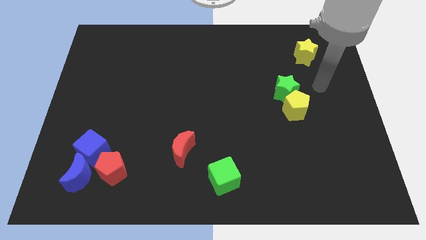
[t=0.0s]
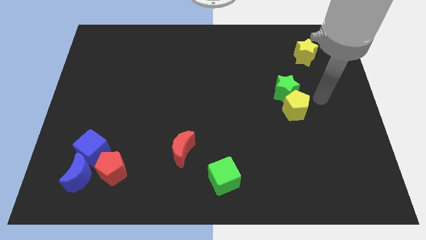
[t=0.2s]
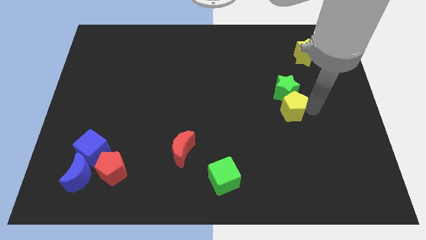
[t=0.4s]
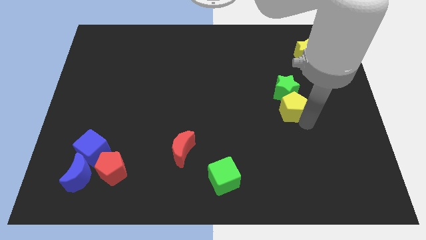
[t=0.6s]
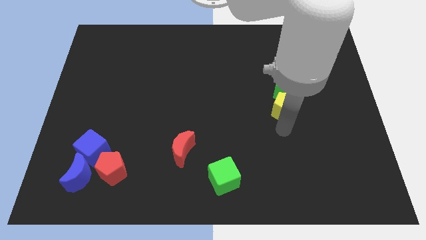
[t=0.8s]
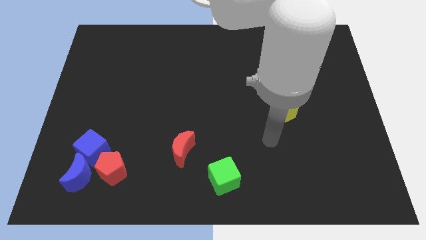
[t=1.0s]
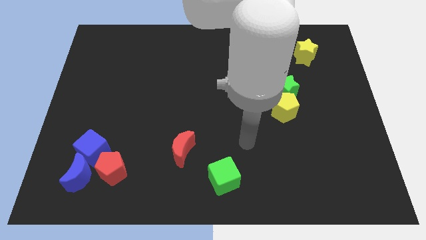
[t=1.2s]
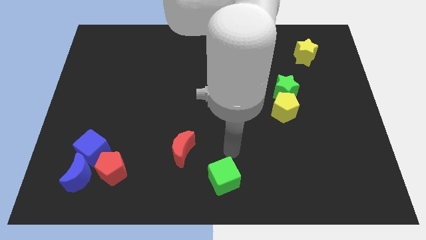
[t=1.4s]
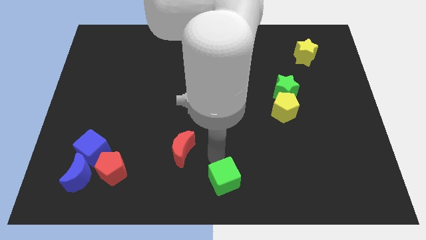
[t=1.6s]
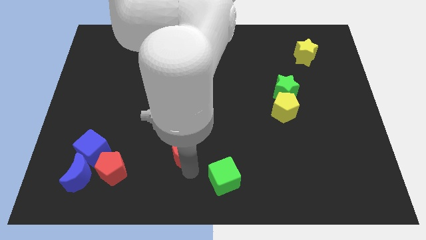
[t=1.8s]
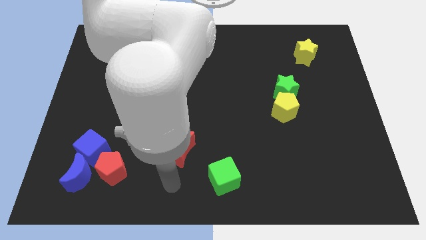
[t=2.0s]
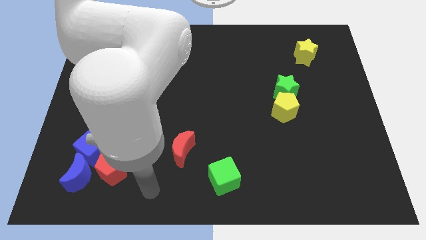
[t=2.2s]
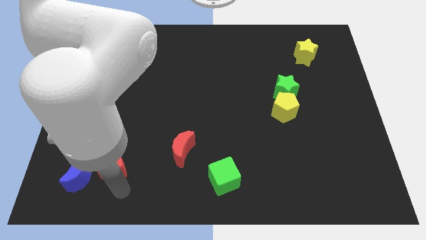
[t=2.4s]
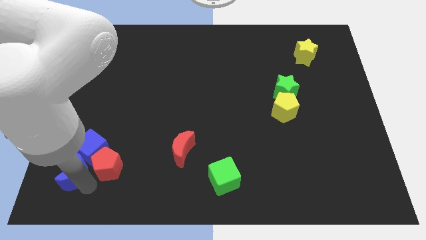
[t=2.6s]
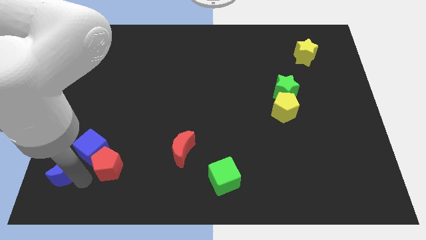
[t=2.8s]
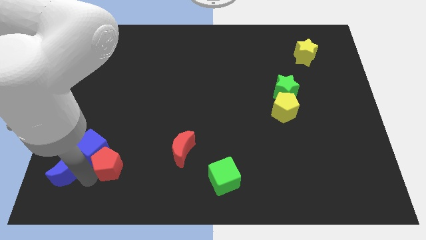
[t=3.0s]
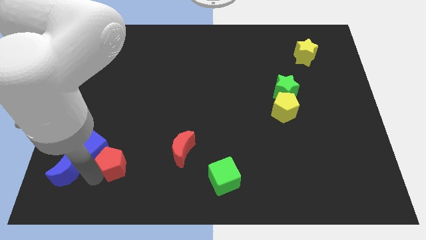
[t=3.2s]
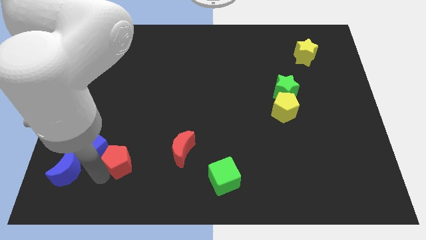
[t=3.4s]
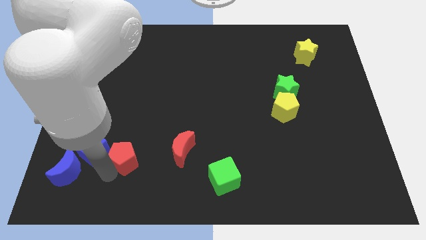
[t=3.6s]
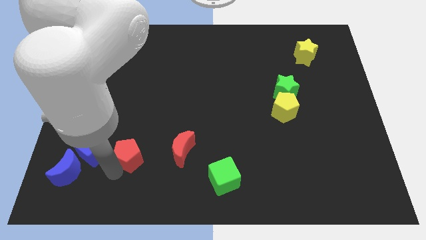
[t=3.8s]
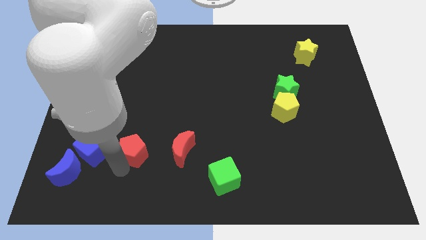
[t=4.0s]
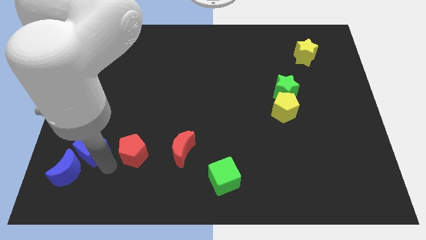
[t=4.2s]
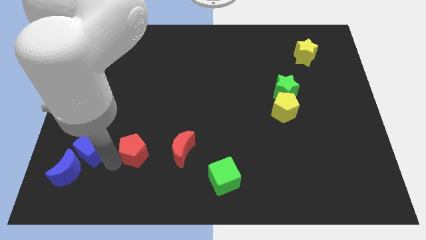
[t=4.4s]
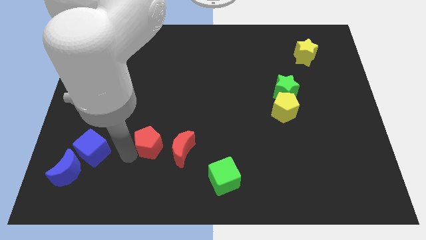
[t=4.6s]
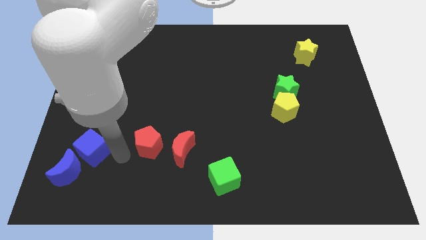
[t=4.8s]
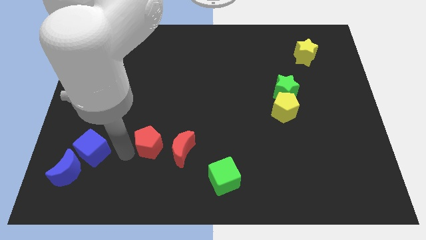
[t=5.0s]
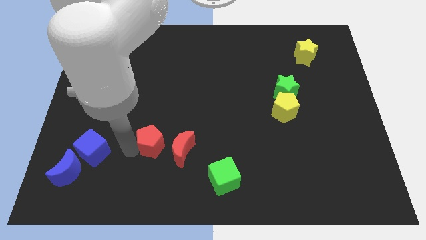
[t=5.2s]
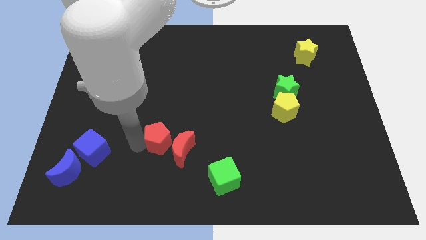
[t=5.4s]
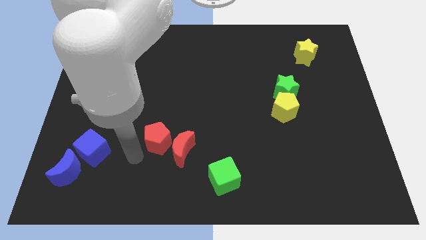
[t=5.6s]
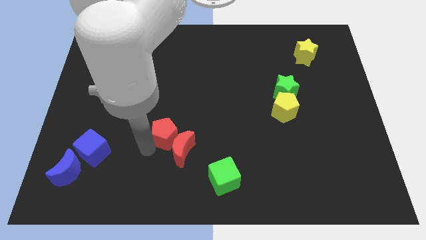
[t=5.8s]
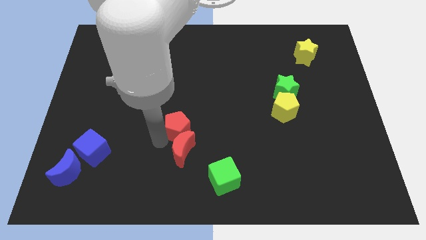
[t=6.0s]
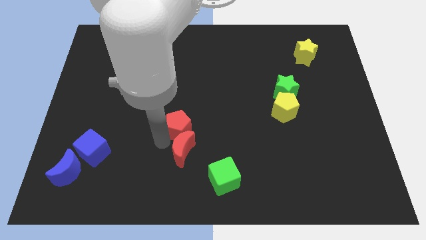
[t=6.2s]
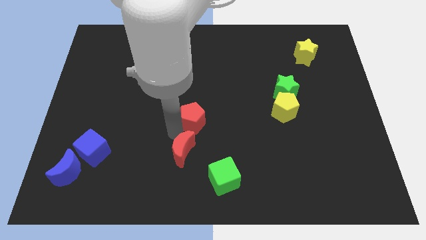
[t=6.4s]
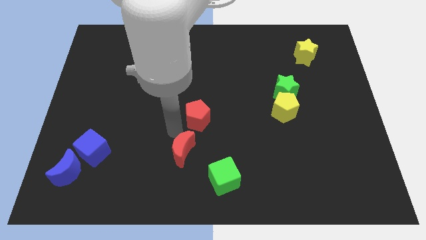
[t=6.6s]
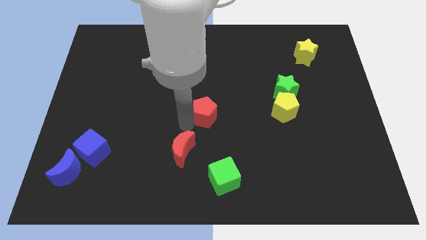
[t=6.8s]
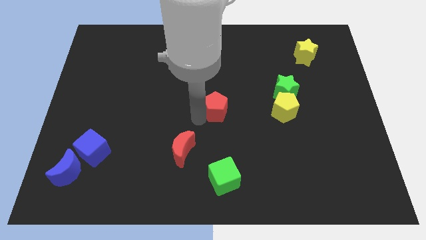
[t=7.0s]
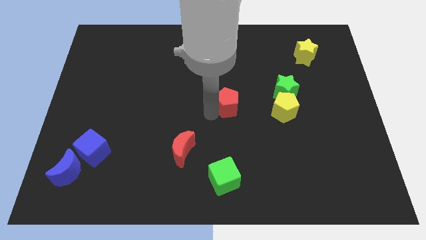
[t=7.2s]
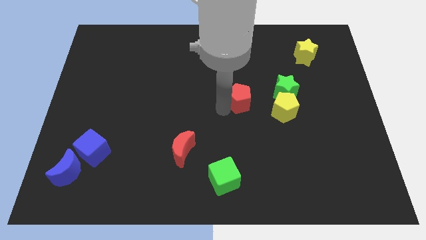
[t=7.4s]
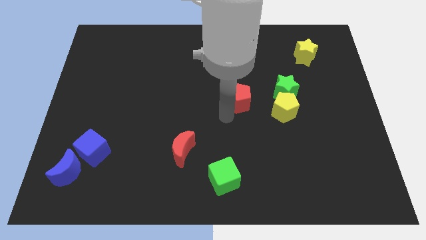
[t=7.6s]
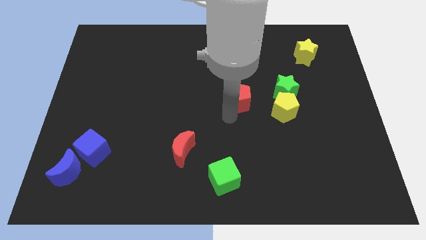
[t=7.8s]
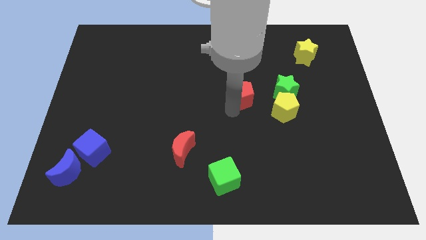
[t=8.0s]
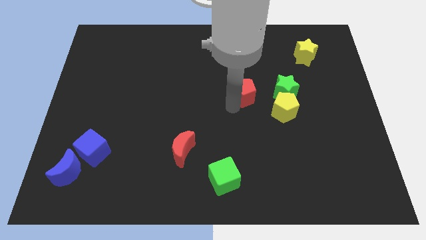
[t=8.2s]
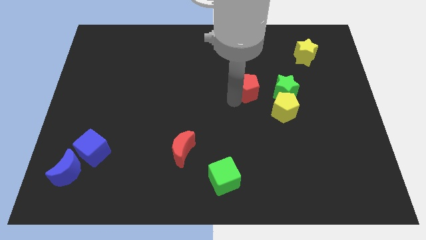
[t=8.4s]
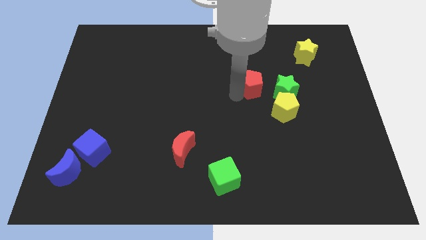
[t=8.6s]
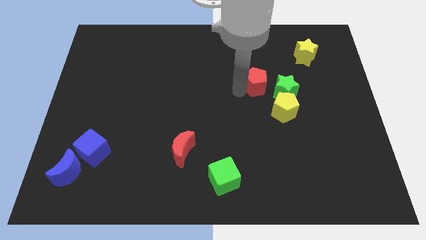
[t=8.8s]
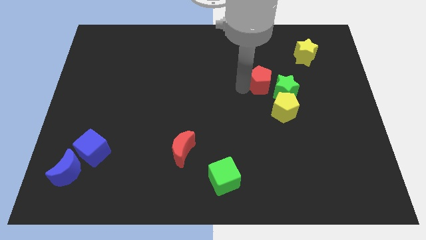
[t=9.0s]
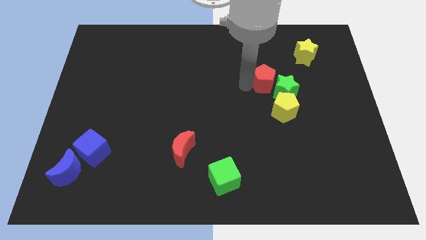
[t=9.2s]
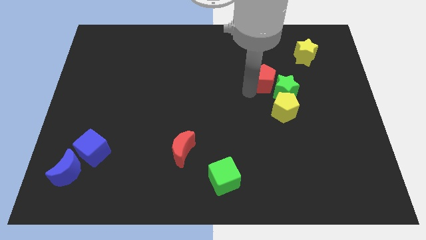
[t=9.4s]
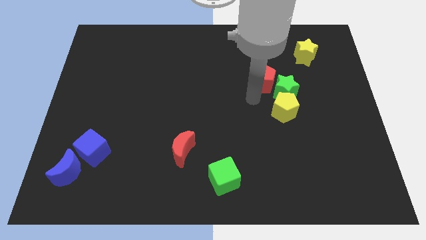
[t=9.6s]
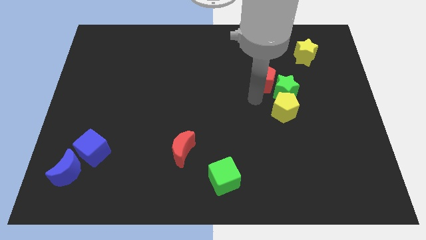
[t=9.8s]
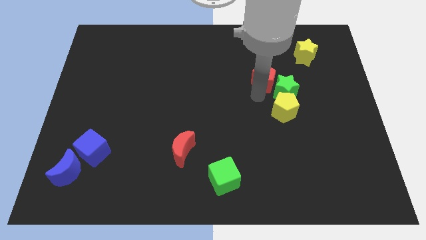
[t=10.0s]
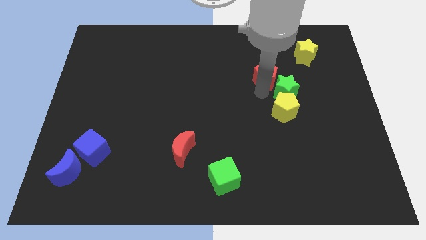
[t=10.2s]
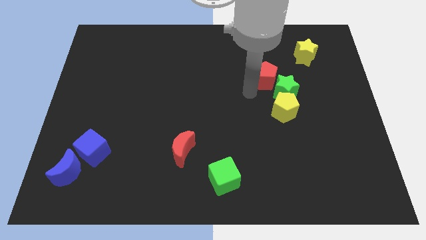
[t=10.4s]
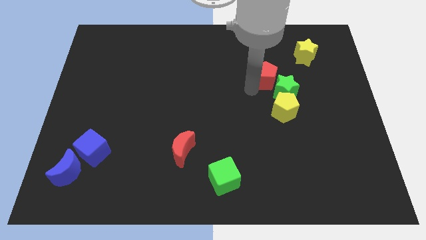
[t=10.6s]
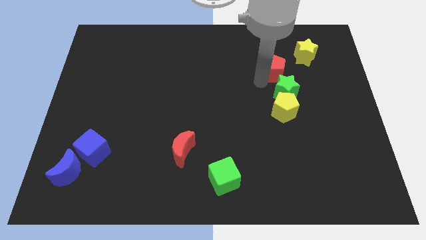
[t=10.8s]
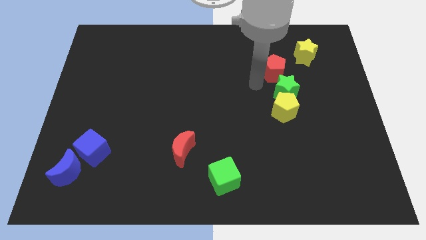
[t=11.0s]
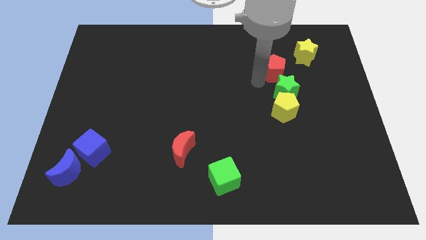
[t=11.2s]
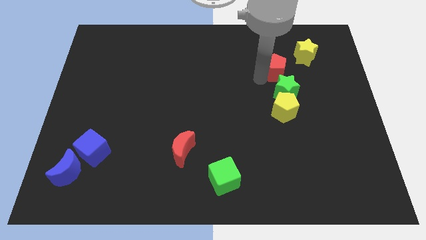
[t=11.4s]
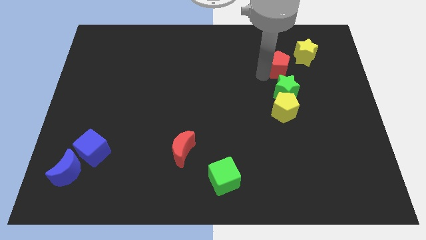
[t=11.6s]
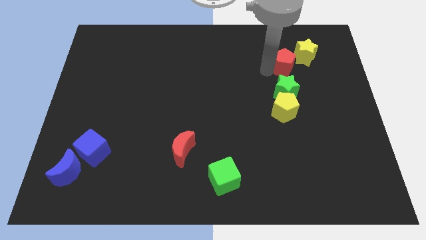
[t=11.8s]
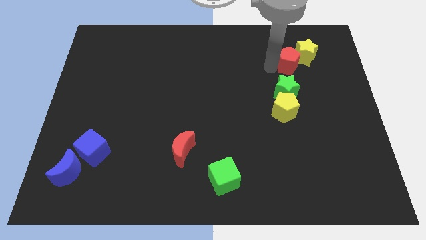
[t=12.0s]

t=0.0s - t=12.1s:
slide the red pentagon towards the yellow star

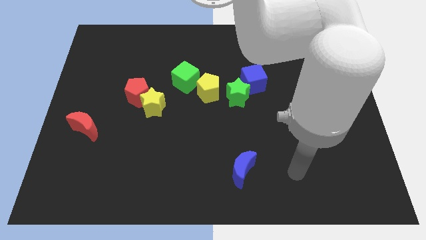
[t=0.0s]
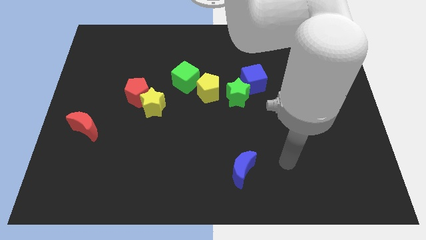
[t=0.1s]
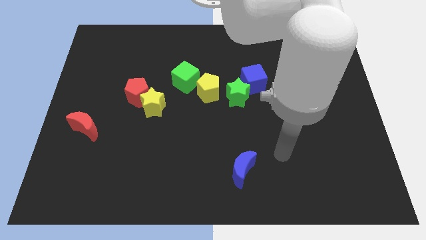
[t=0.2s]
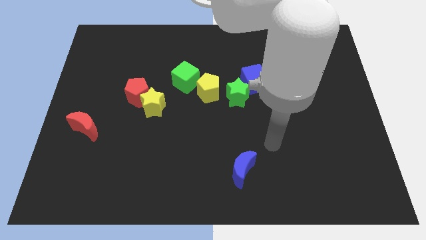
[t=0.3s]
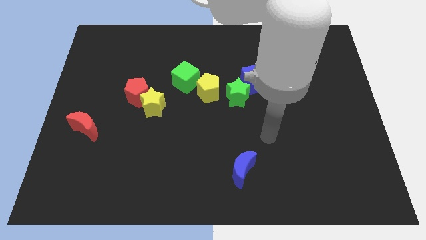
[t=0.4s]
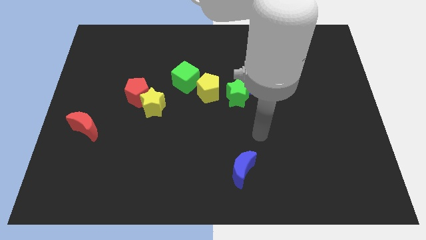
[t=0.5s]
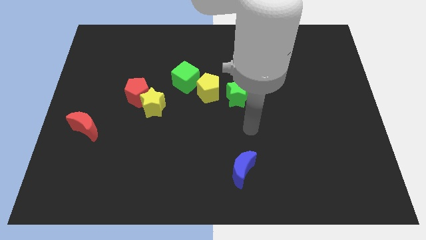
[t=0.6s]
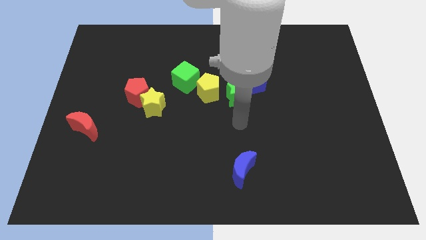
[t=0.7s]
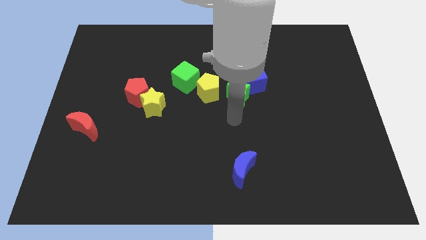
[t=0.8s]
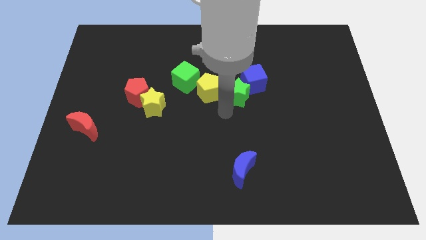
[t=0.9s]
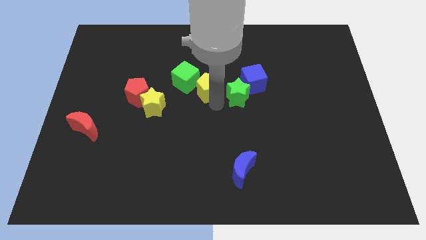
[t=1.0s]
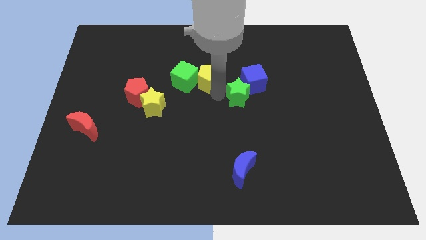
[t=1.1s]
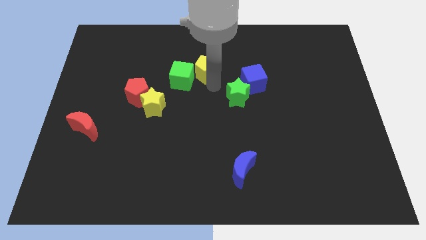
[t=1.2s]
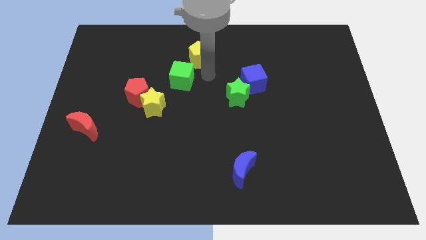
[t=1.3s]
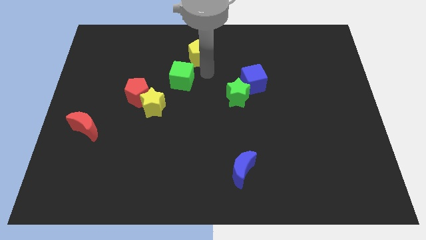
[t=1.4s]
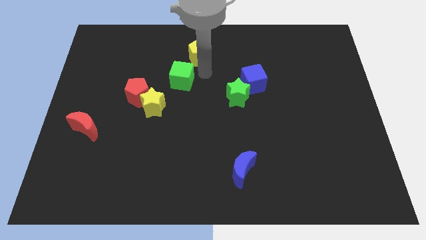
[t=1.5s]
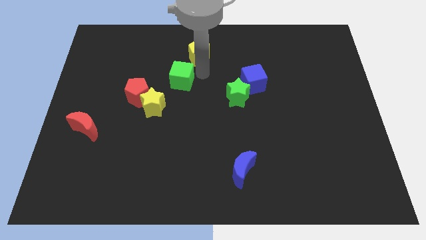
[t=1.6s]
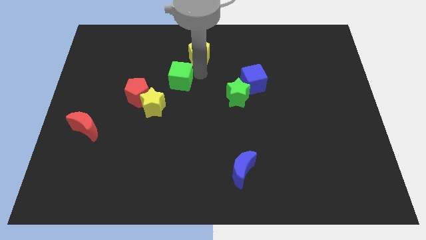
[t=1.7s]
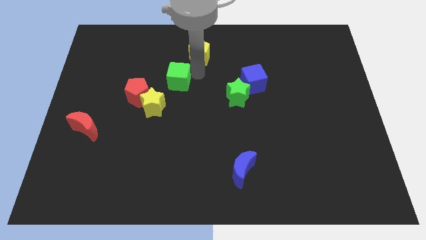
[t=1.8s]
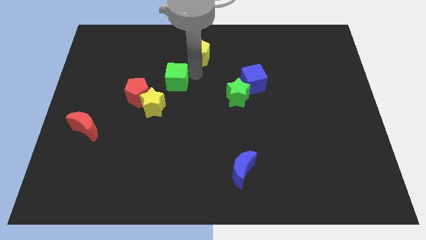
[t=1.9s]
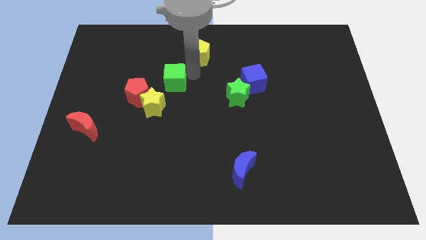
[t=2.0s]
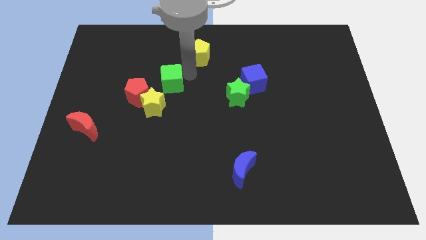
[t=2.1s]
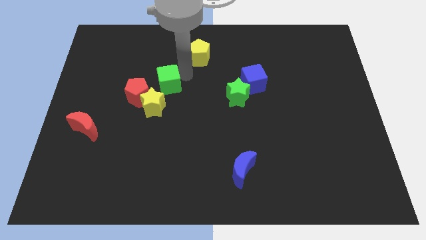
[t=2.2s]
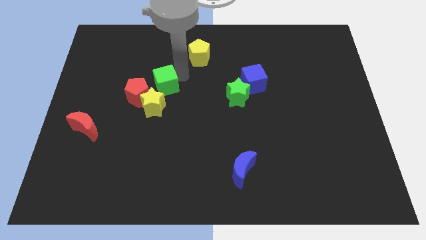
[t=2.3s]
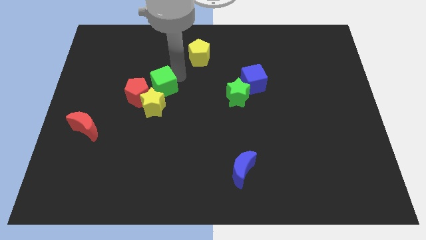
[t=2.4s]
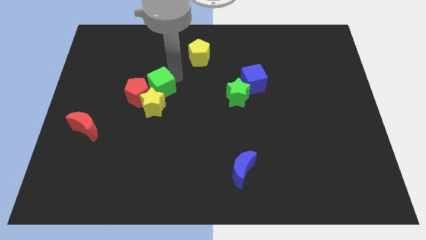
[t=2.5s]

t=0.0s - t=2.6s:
put the green cube to the red pentagon
